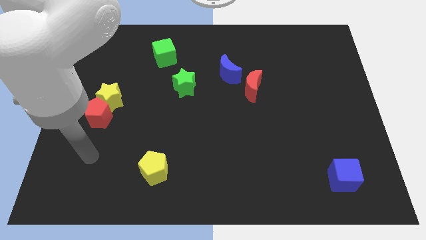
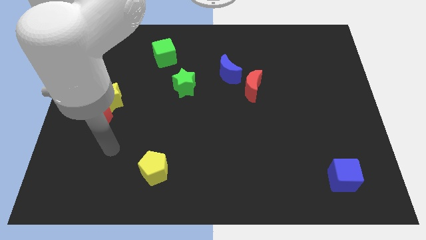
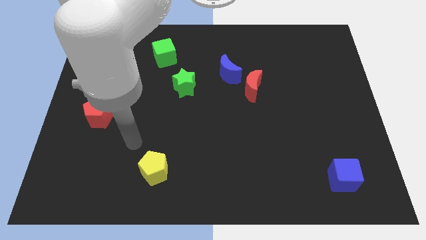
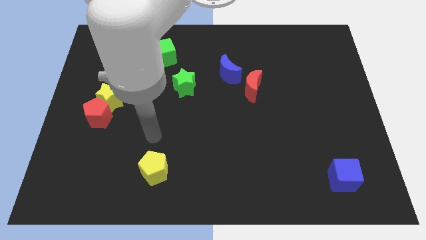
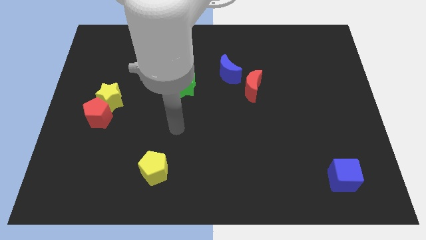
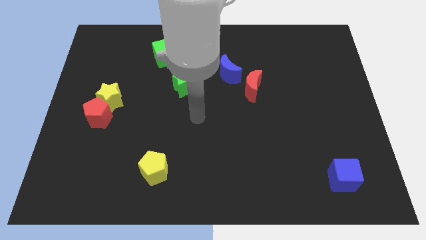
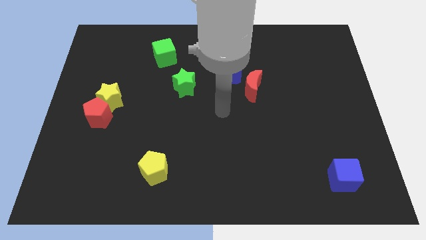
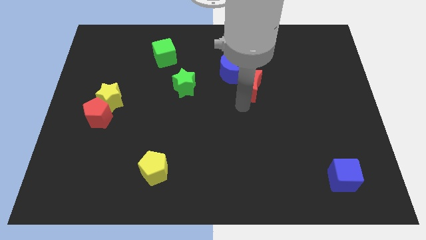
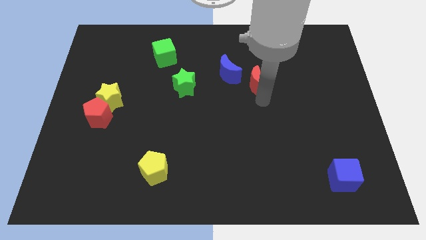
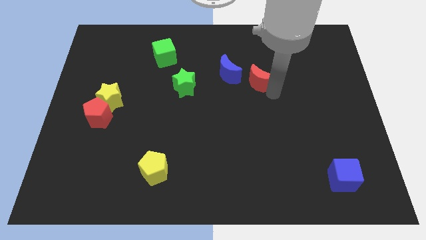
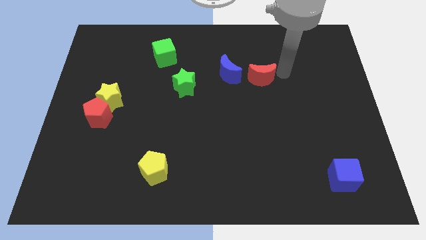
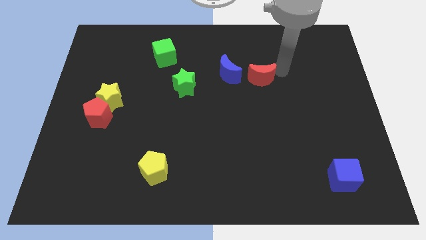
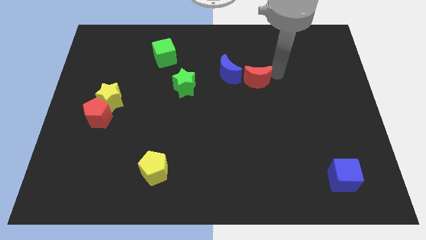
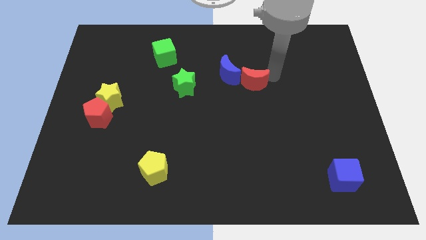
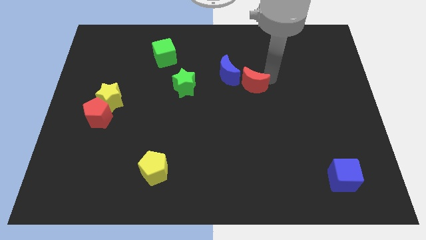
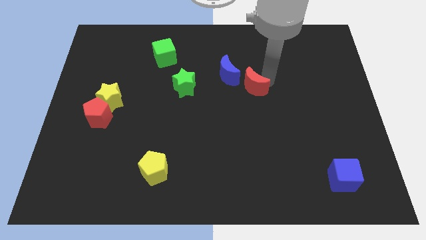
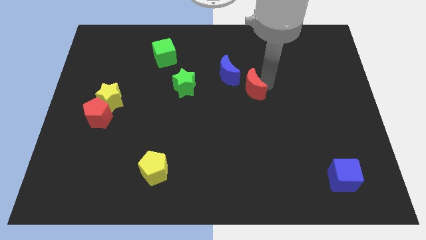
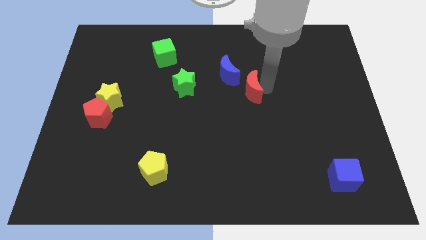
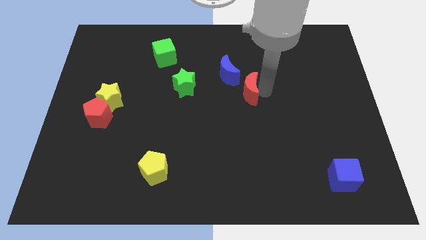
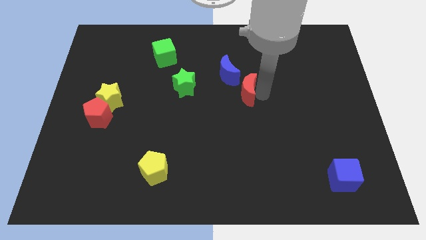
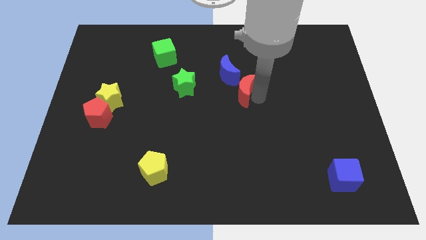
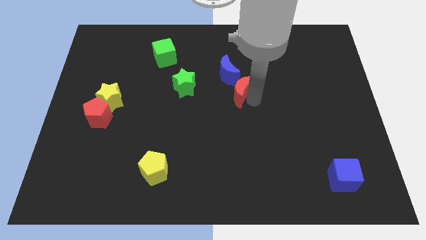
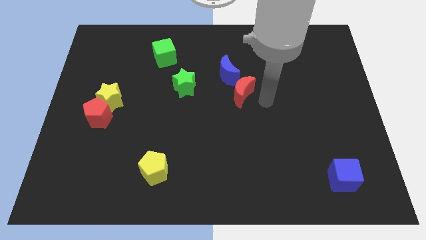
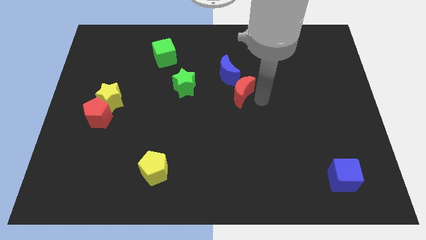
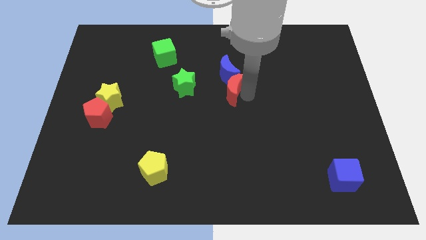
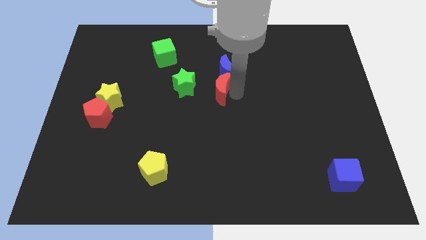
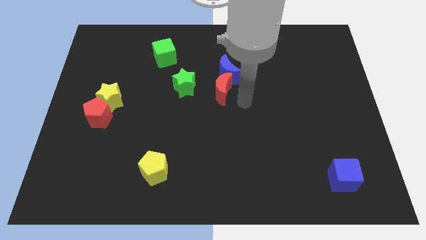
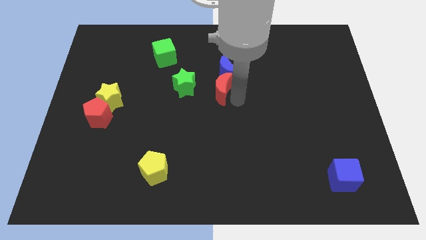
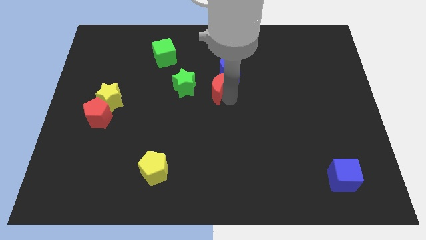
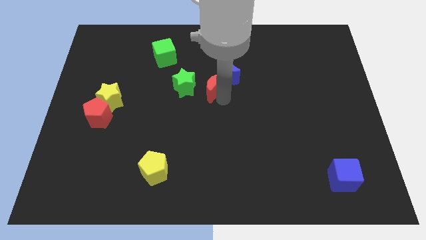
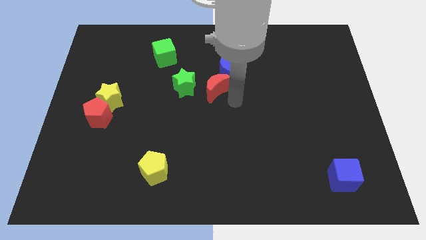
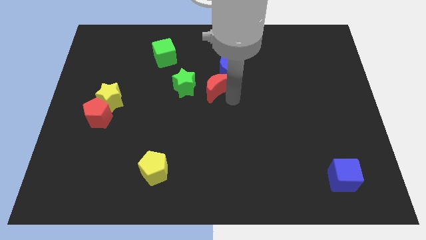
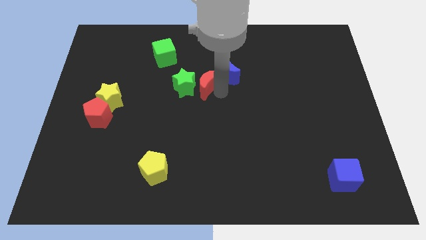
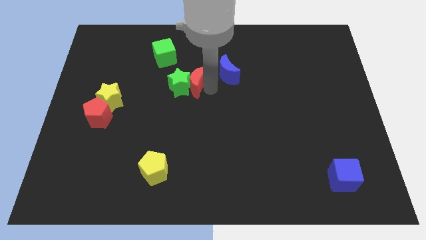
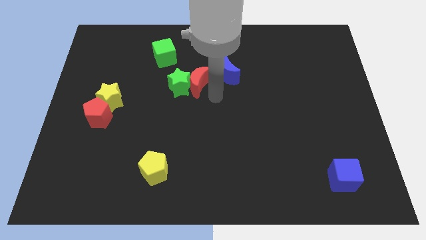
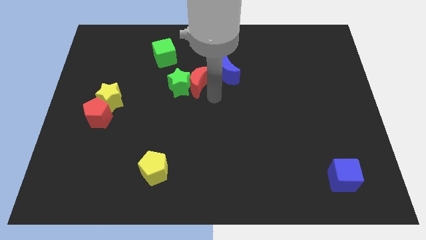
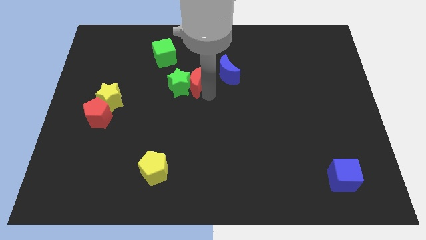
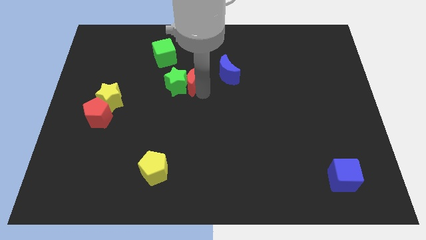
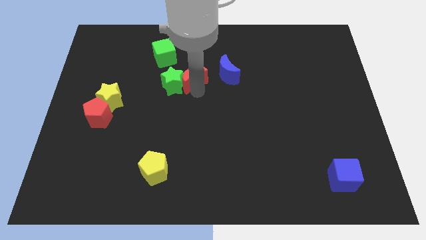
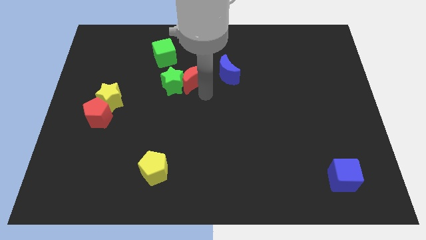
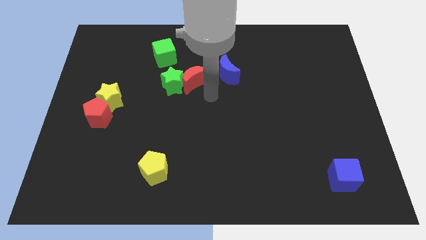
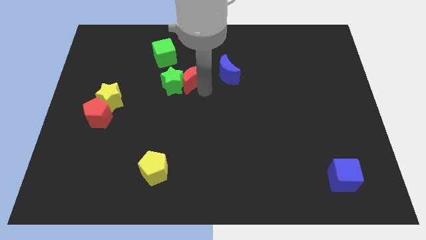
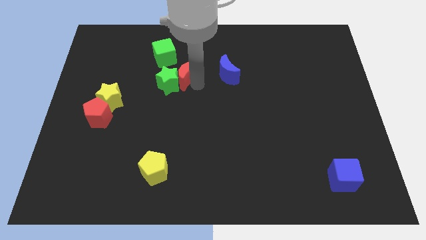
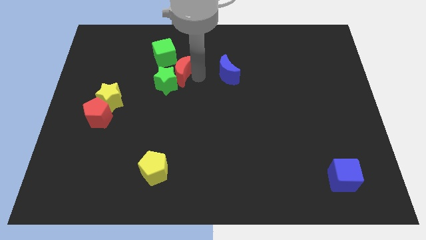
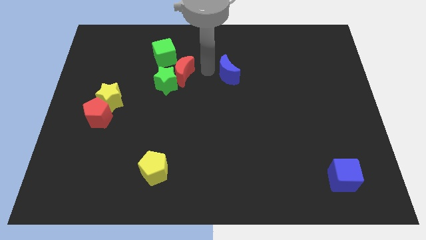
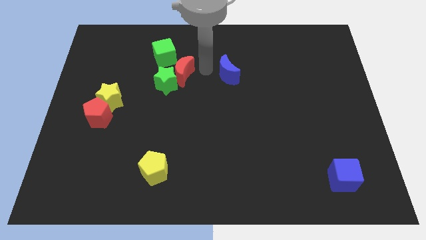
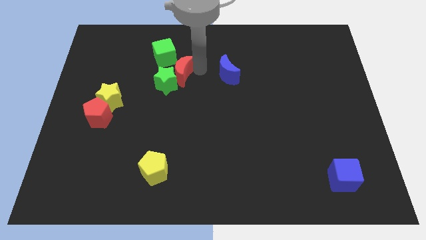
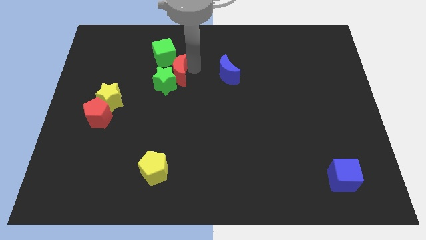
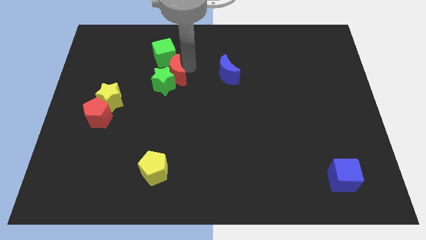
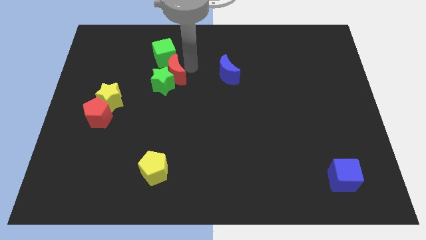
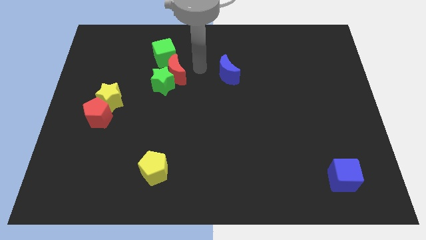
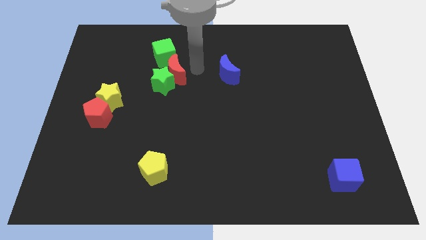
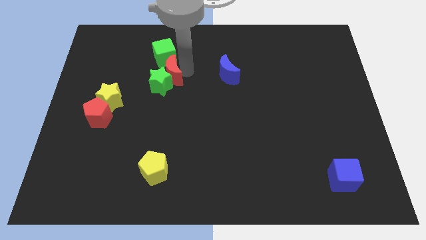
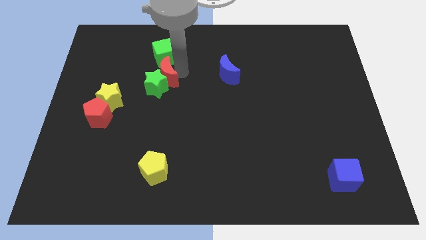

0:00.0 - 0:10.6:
slide the red moon left

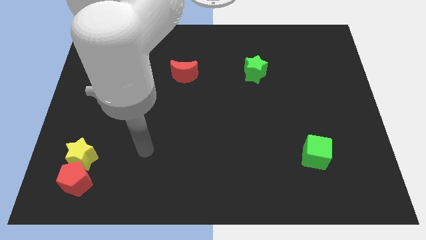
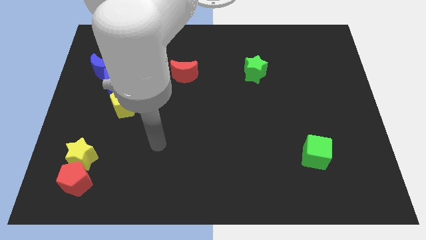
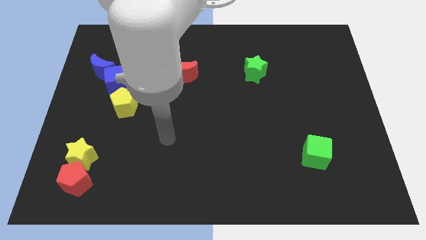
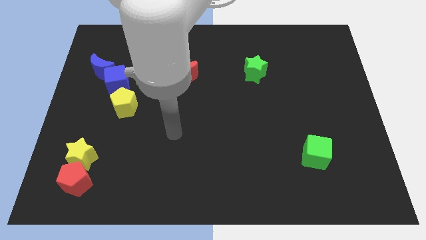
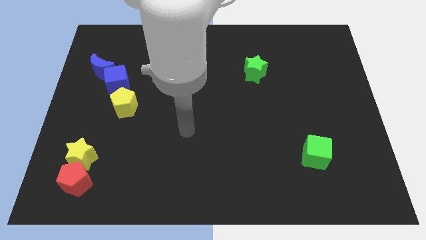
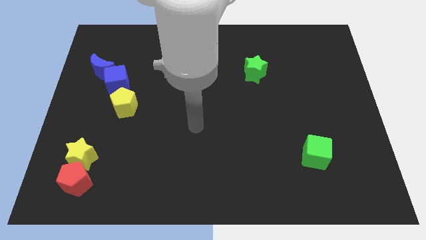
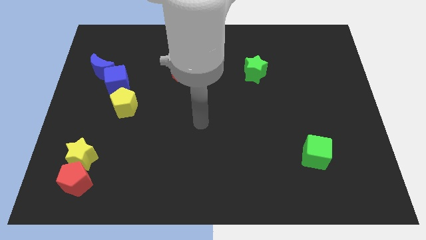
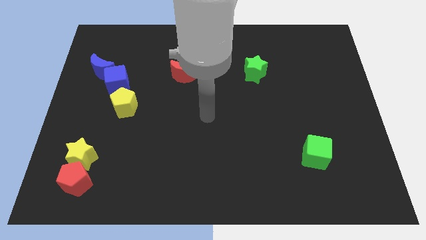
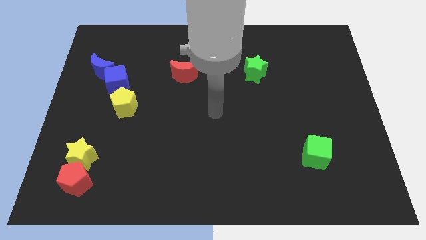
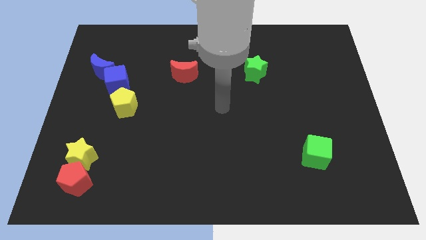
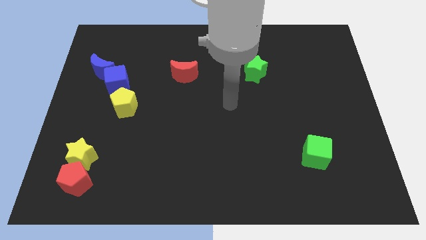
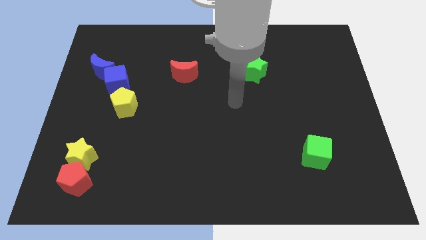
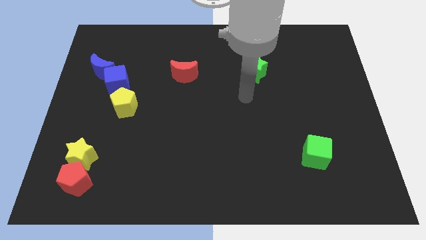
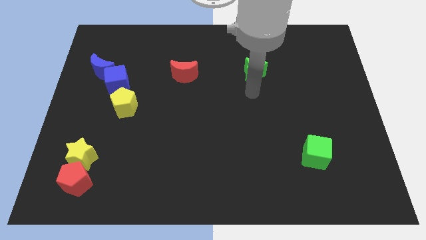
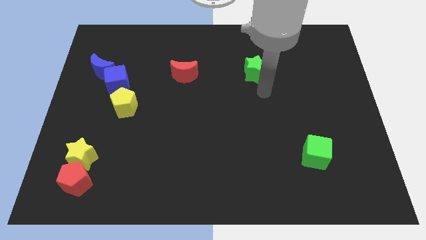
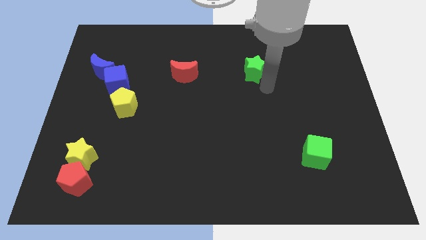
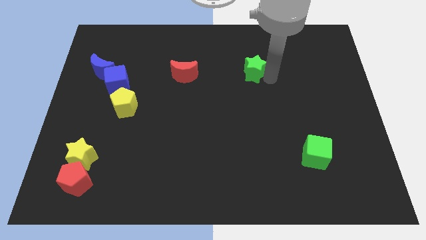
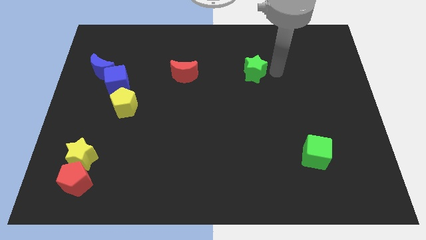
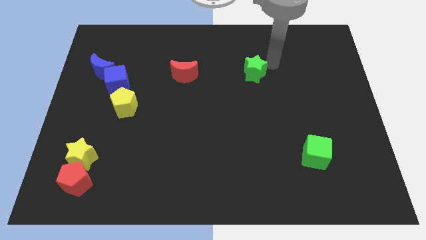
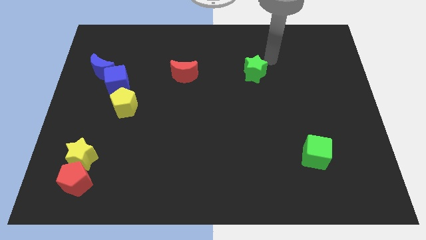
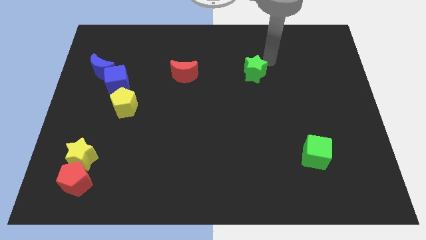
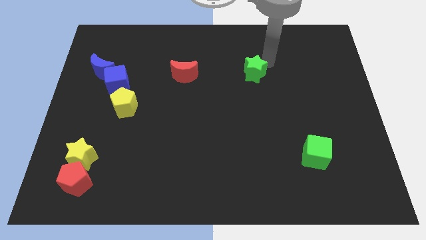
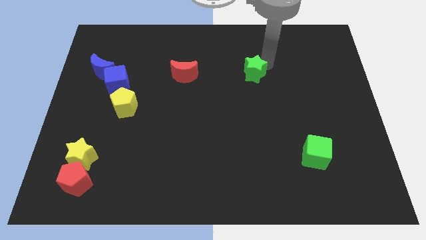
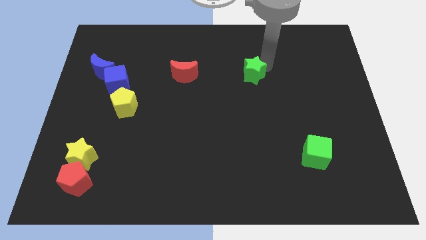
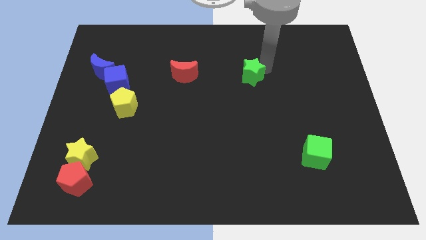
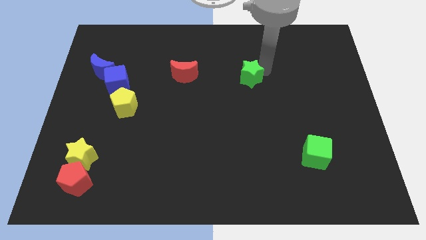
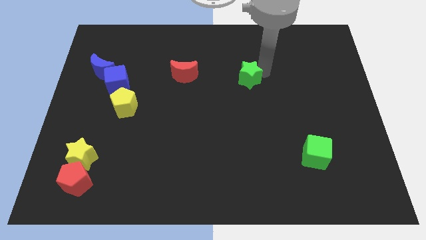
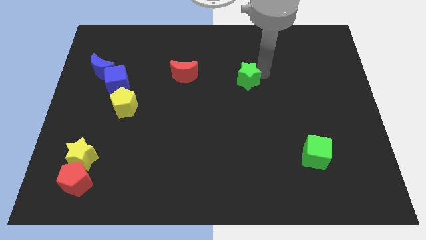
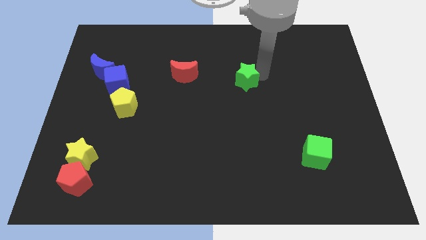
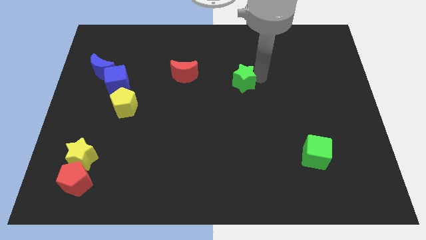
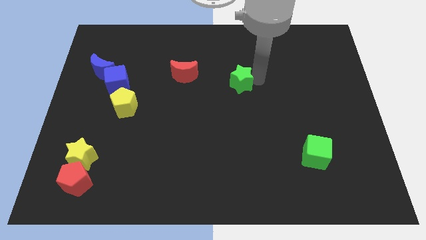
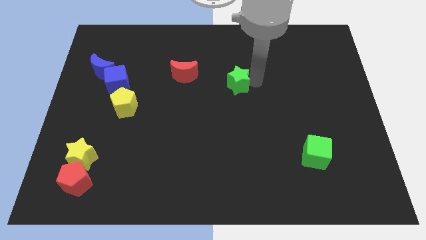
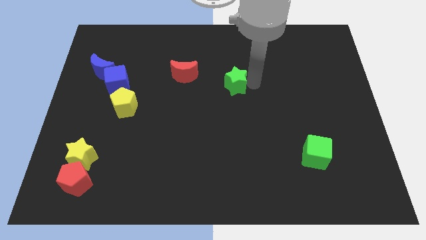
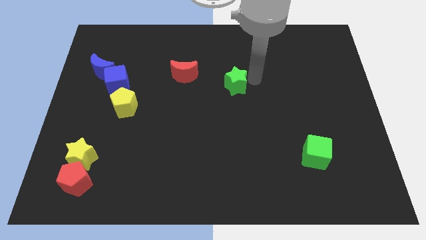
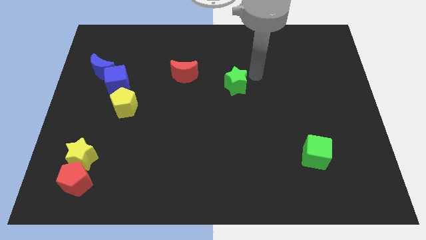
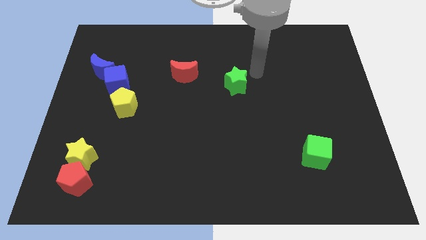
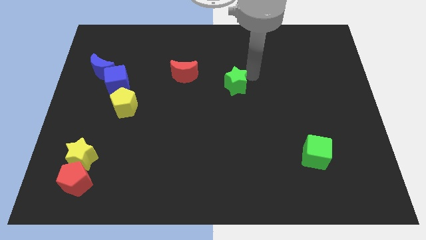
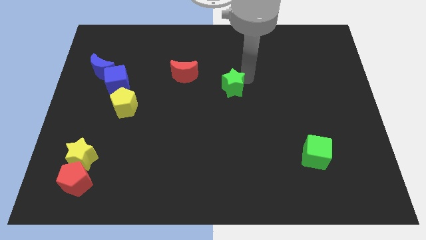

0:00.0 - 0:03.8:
slightly move the green star downwards and left diagonally
